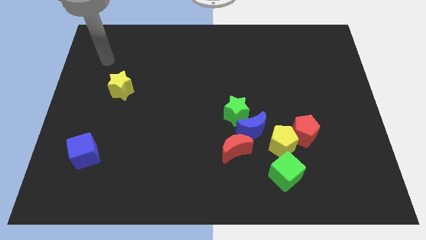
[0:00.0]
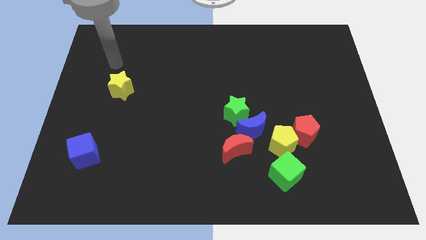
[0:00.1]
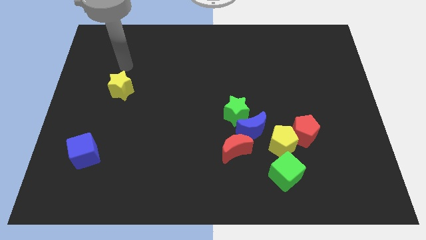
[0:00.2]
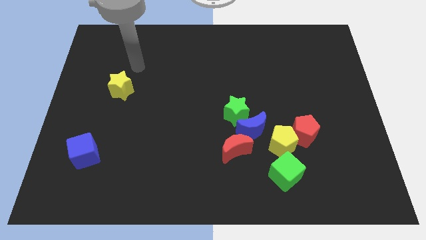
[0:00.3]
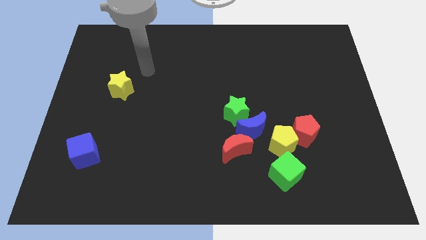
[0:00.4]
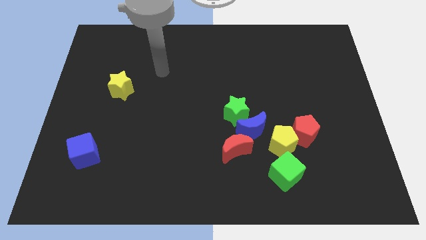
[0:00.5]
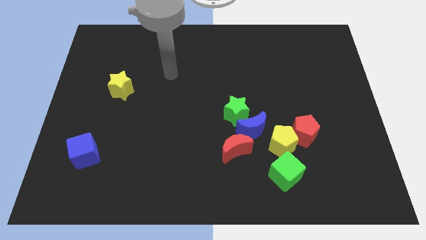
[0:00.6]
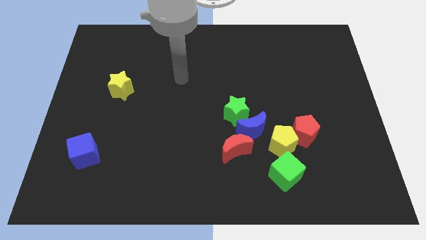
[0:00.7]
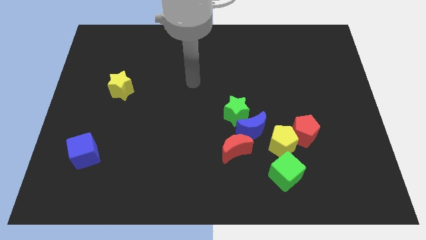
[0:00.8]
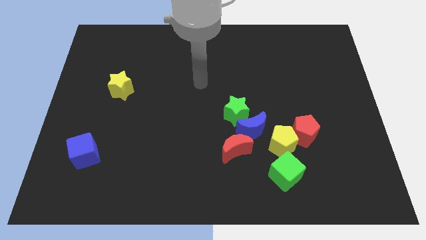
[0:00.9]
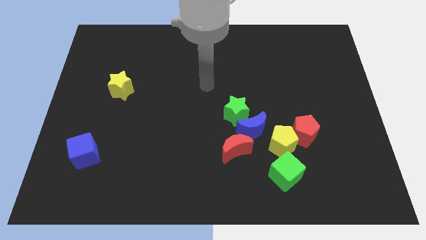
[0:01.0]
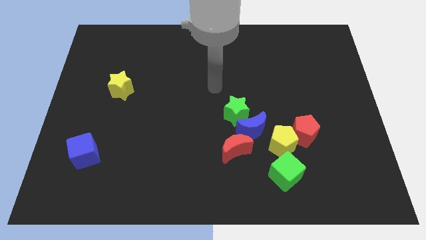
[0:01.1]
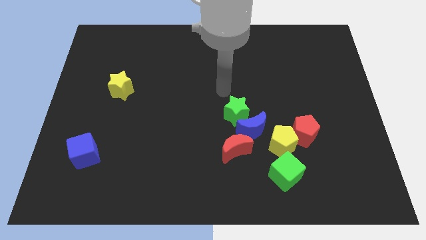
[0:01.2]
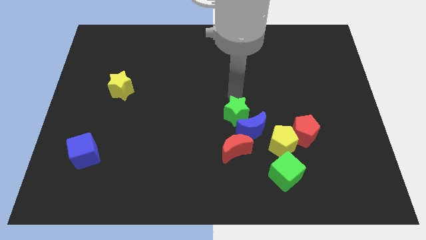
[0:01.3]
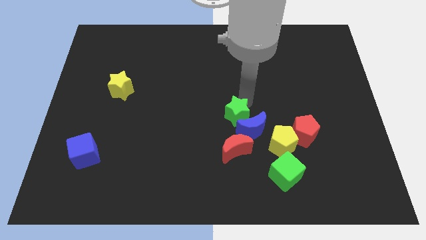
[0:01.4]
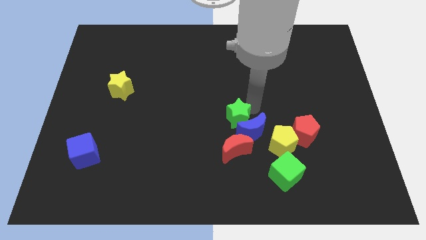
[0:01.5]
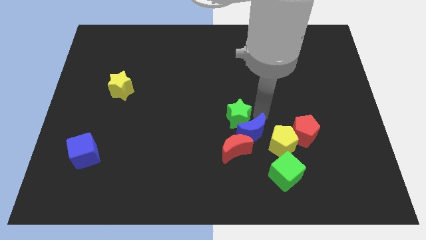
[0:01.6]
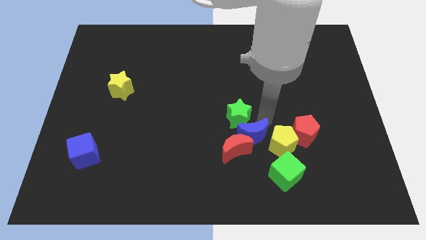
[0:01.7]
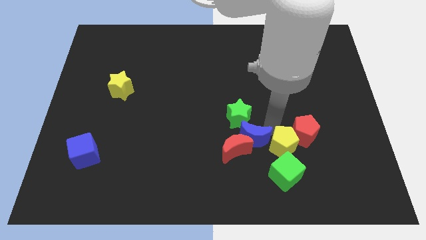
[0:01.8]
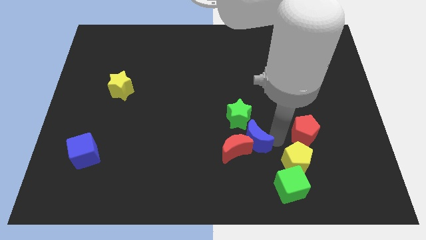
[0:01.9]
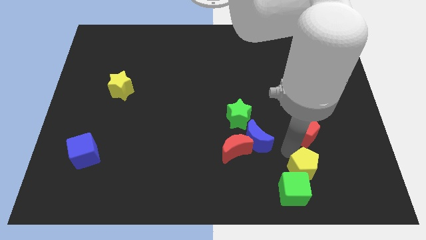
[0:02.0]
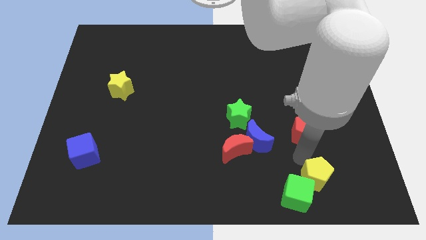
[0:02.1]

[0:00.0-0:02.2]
pull the red pentagon apart from the yellow pentagon

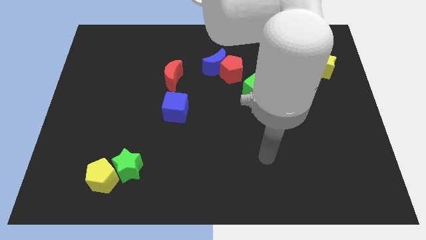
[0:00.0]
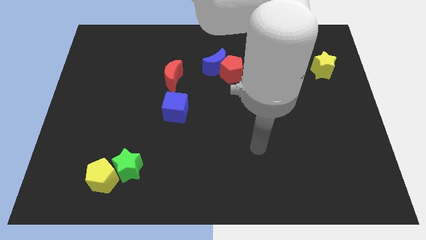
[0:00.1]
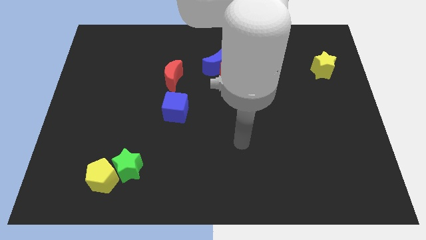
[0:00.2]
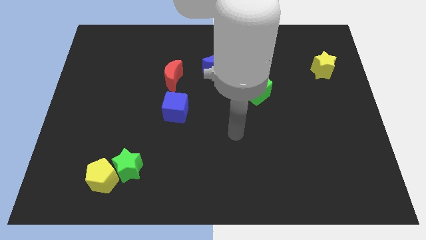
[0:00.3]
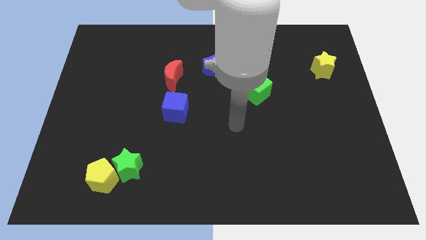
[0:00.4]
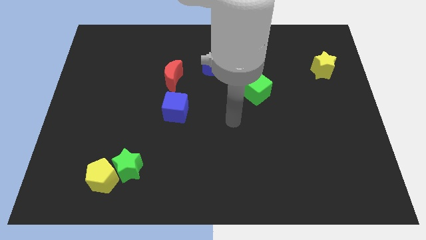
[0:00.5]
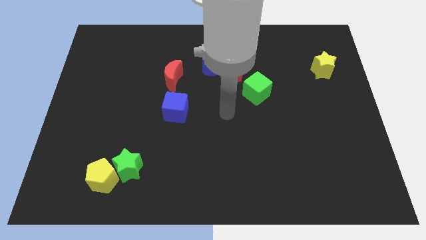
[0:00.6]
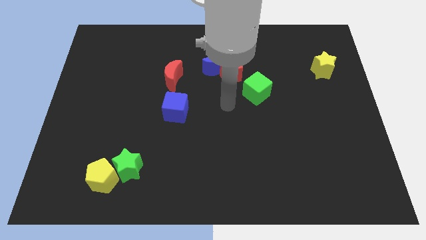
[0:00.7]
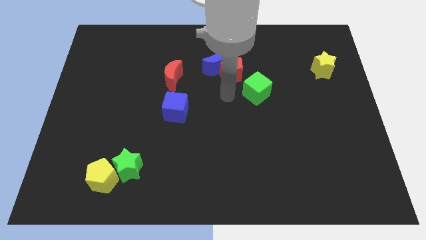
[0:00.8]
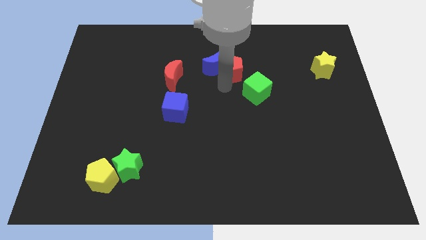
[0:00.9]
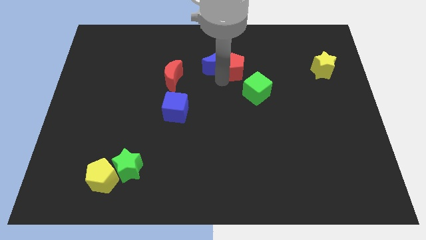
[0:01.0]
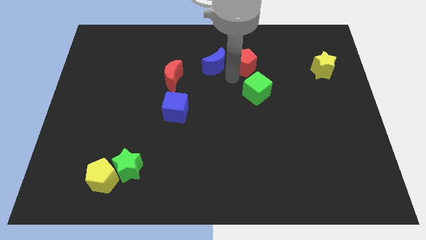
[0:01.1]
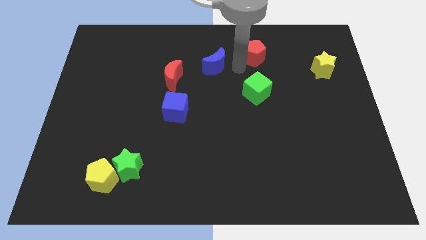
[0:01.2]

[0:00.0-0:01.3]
pull the blue moon apart from the red pentagon

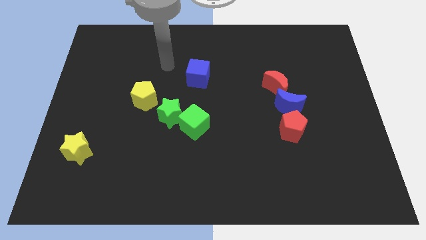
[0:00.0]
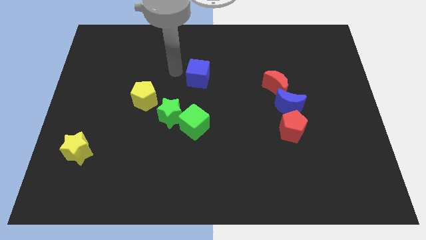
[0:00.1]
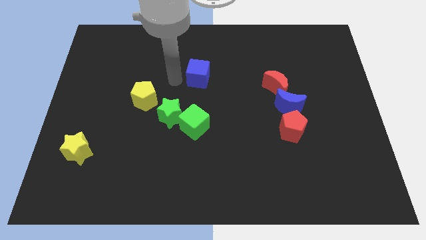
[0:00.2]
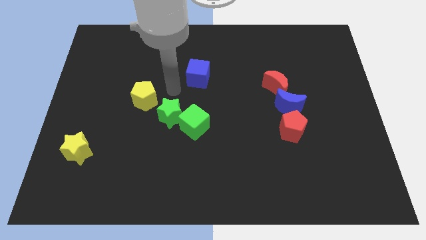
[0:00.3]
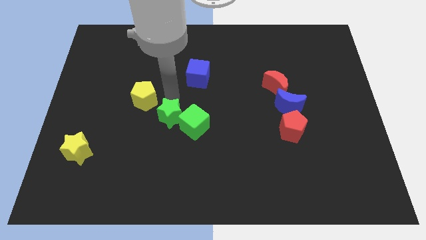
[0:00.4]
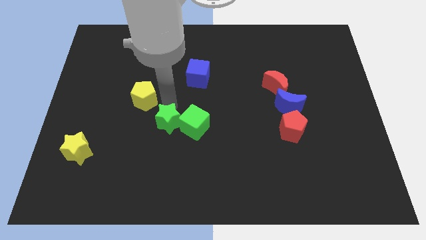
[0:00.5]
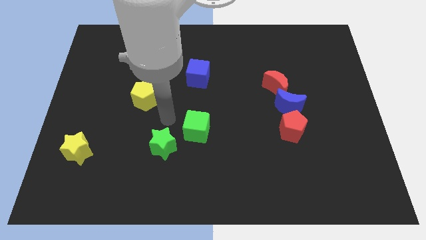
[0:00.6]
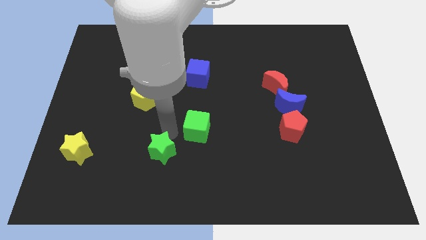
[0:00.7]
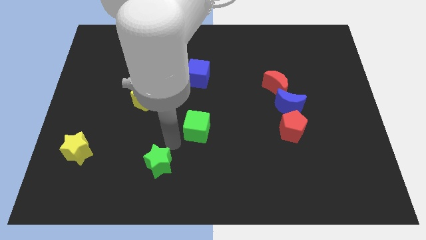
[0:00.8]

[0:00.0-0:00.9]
separate the green cube from the green star

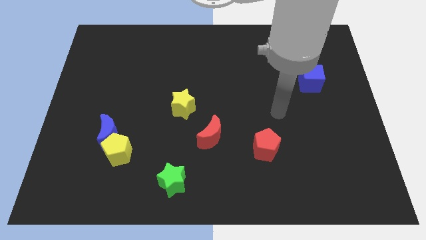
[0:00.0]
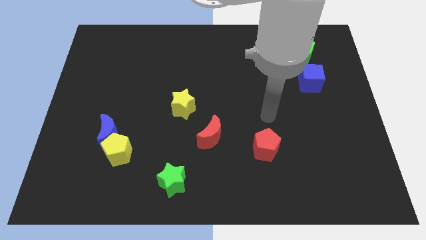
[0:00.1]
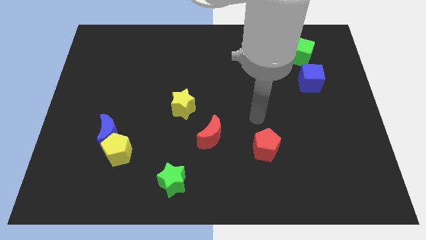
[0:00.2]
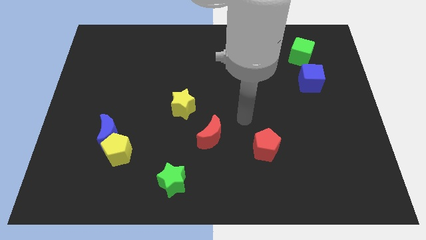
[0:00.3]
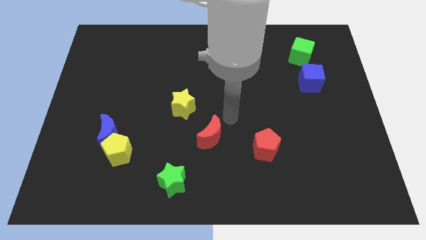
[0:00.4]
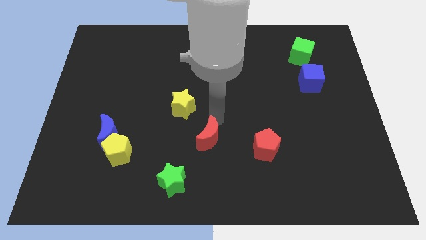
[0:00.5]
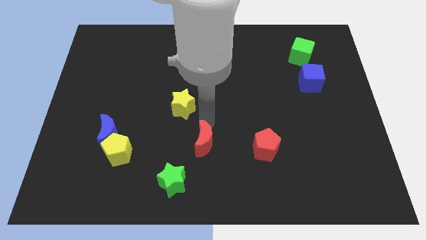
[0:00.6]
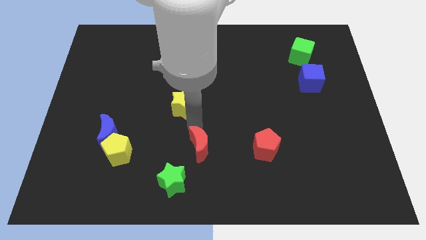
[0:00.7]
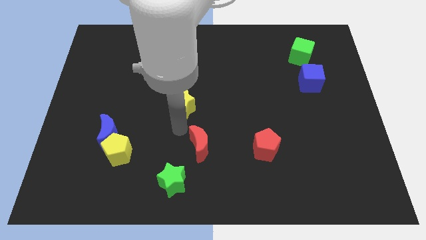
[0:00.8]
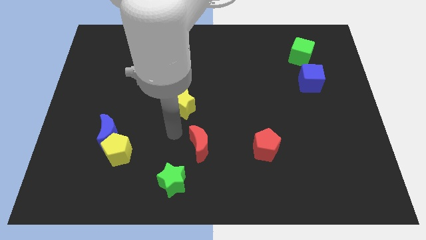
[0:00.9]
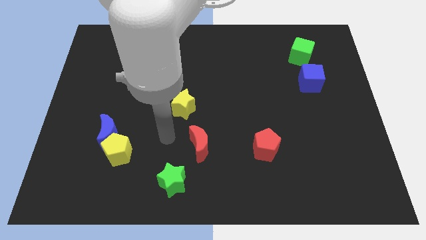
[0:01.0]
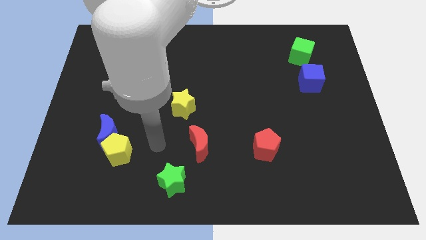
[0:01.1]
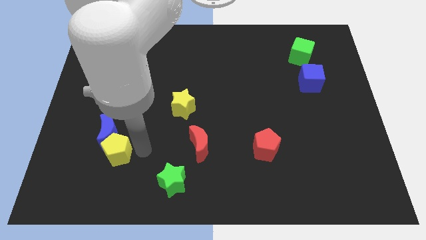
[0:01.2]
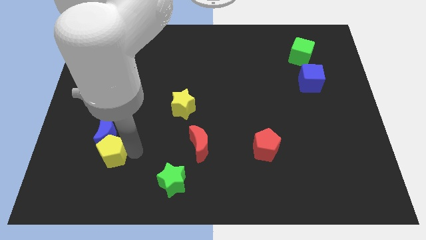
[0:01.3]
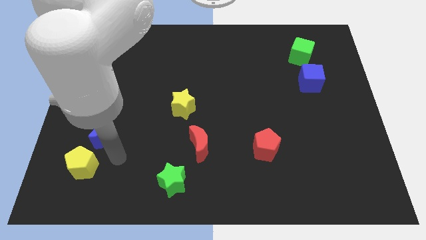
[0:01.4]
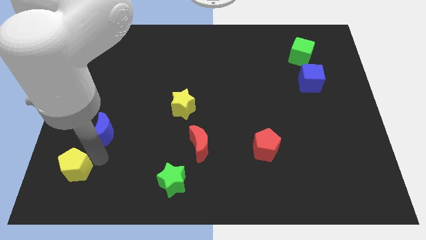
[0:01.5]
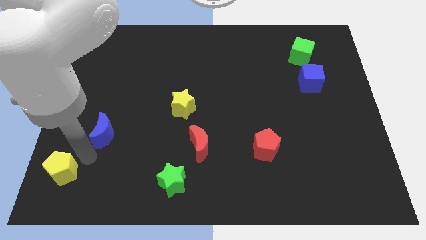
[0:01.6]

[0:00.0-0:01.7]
move the blue moon away from the yellow pentagon

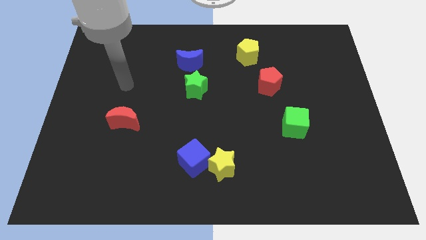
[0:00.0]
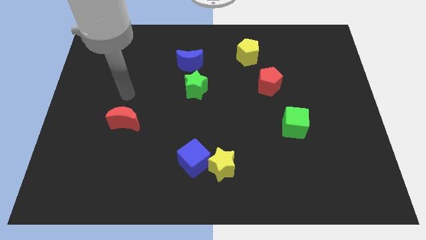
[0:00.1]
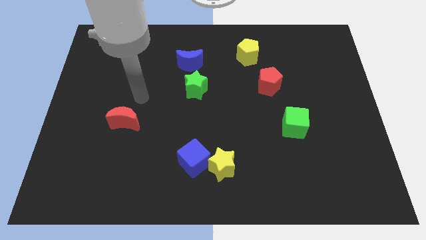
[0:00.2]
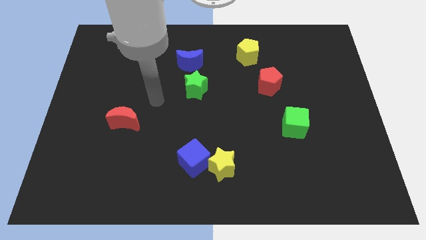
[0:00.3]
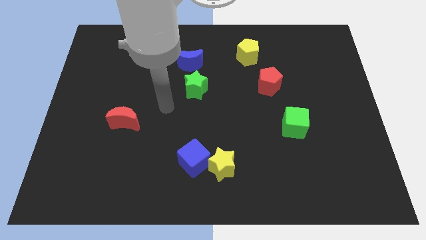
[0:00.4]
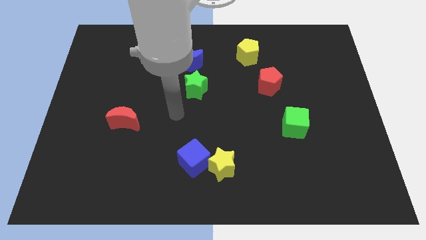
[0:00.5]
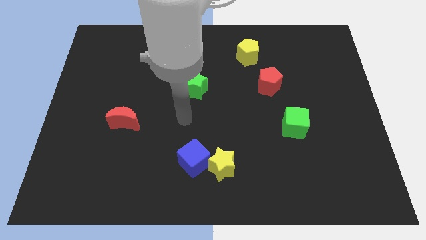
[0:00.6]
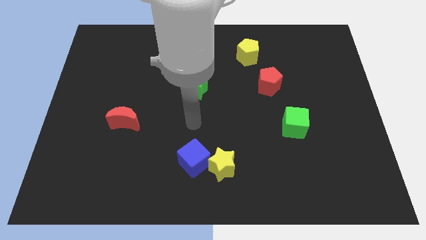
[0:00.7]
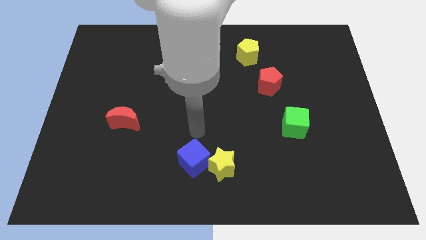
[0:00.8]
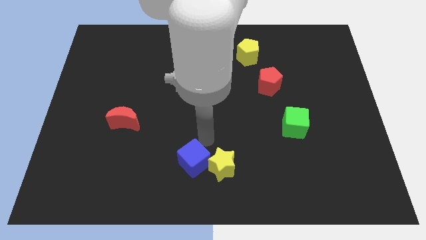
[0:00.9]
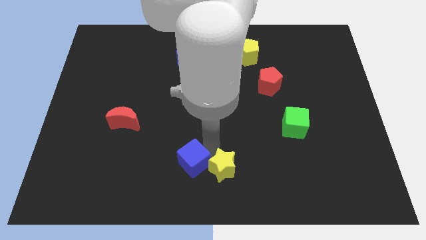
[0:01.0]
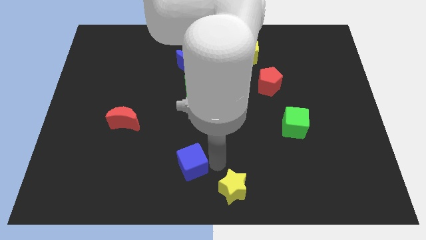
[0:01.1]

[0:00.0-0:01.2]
pull the blue cube apart from the yellow star

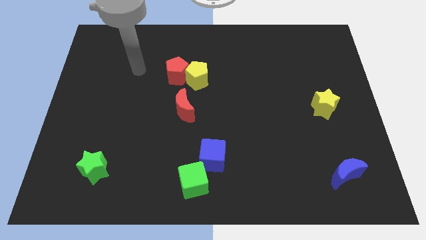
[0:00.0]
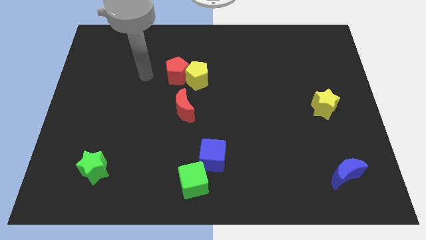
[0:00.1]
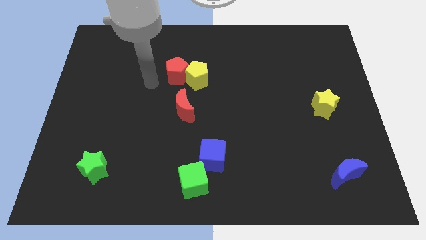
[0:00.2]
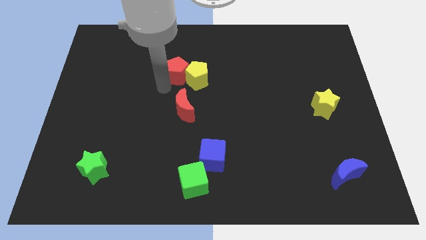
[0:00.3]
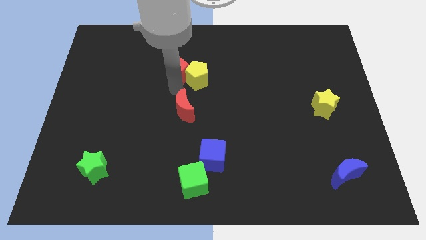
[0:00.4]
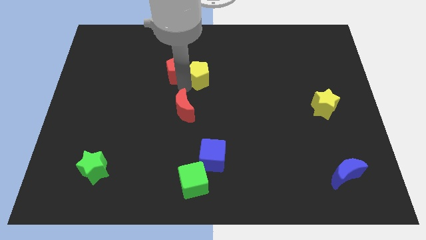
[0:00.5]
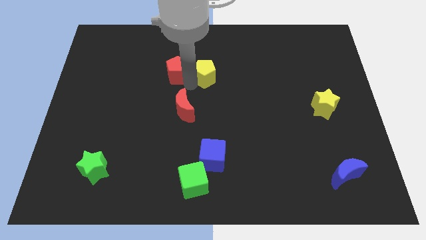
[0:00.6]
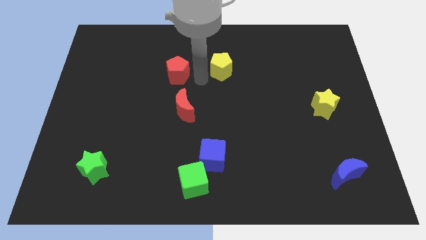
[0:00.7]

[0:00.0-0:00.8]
separate the red pentagon from the yellow pentagon

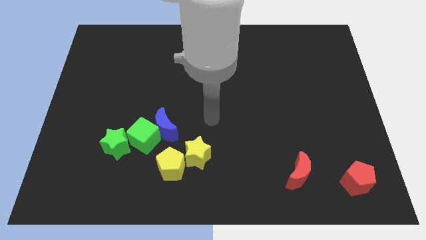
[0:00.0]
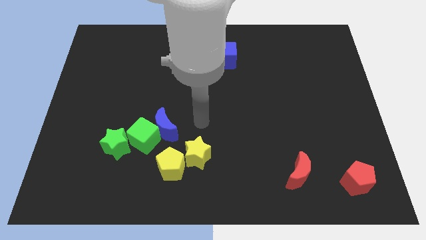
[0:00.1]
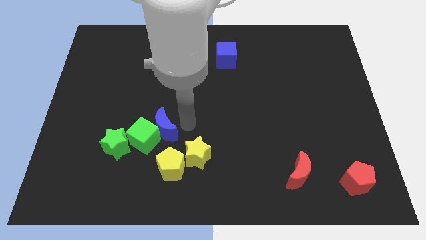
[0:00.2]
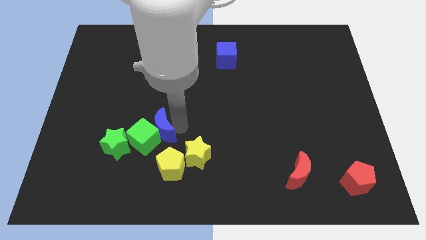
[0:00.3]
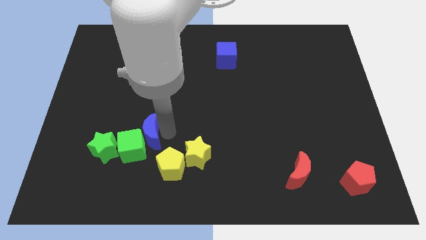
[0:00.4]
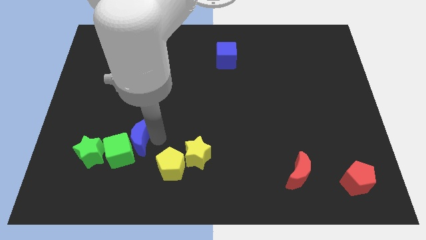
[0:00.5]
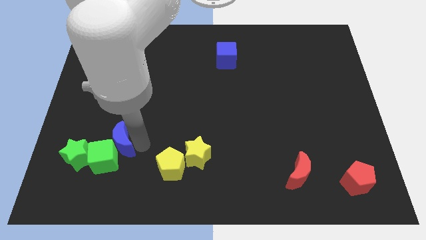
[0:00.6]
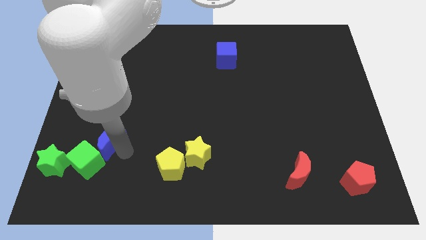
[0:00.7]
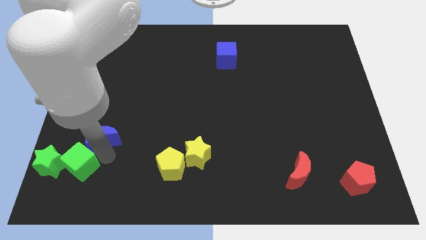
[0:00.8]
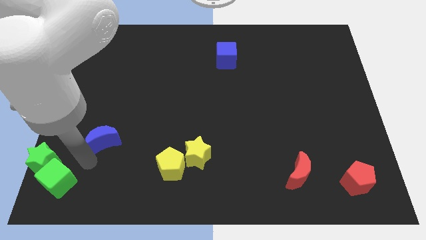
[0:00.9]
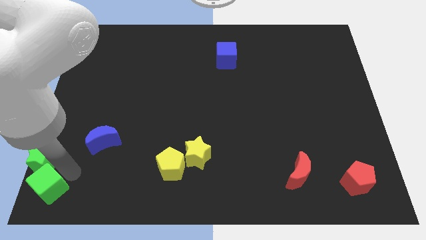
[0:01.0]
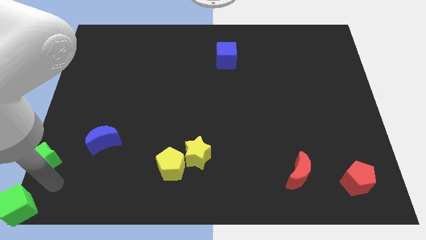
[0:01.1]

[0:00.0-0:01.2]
pull the green star apart from the green cube
